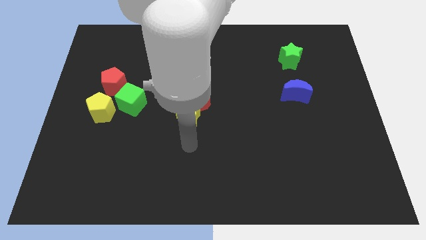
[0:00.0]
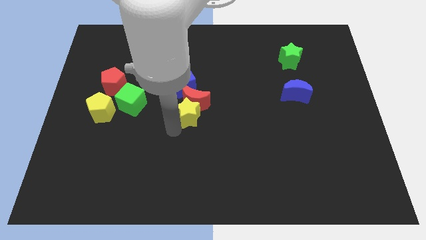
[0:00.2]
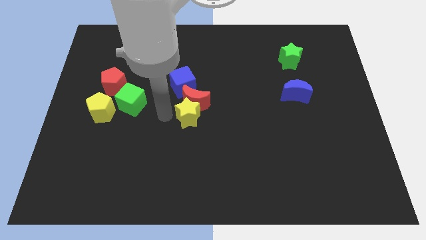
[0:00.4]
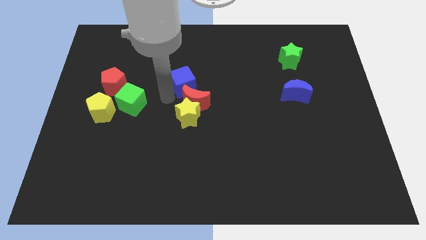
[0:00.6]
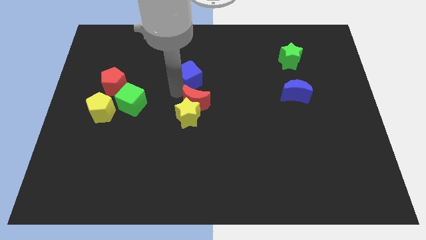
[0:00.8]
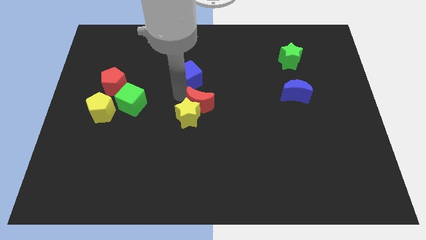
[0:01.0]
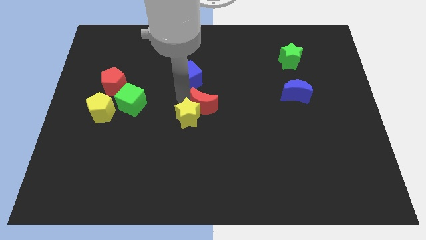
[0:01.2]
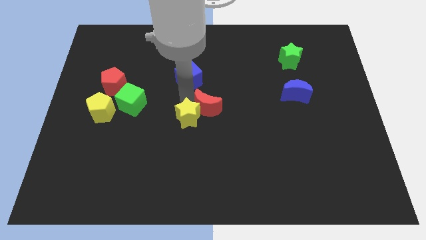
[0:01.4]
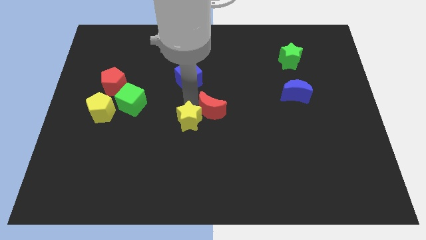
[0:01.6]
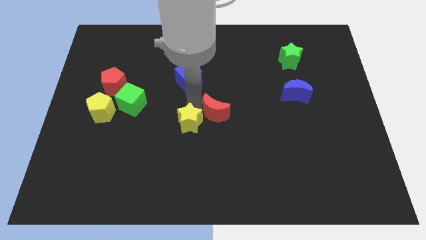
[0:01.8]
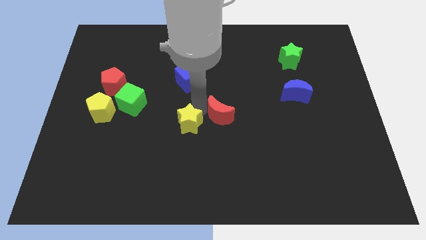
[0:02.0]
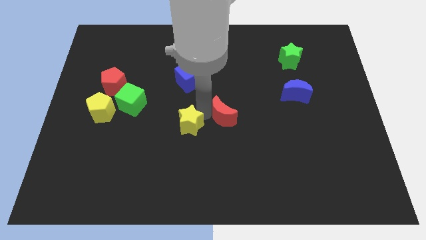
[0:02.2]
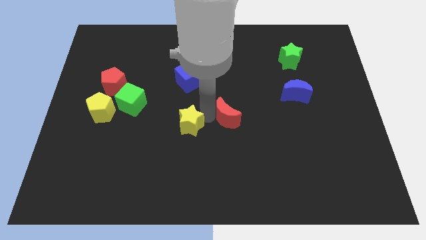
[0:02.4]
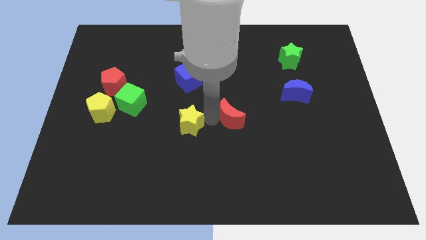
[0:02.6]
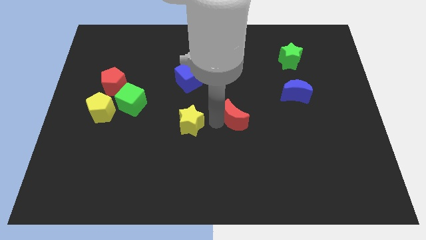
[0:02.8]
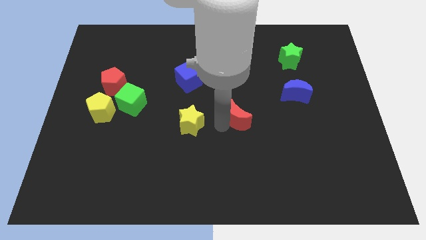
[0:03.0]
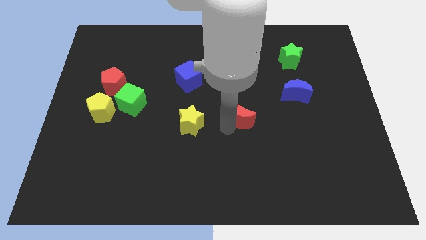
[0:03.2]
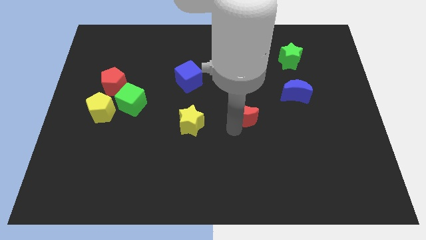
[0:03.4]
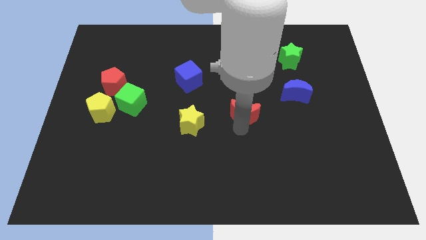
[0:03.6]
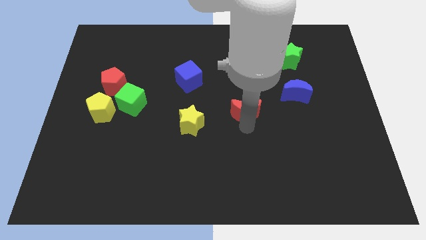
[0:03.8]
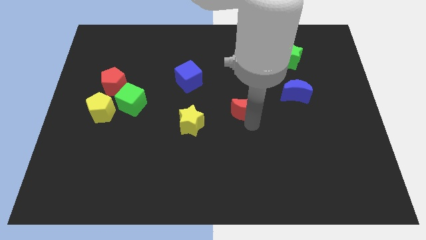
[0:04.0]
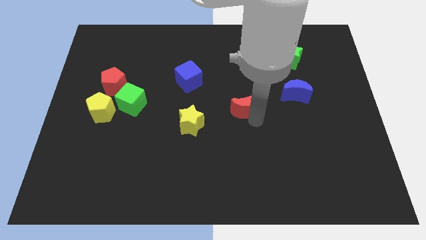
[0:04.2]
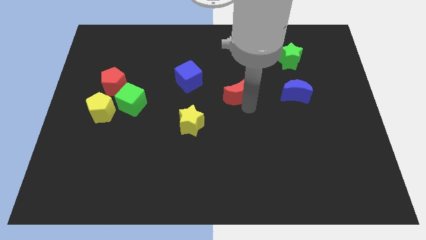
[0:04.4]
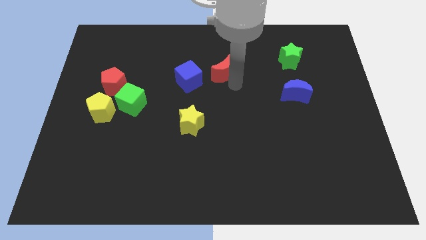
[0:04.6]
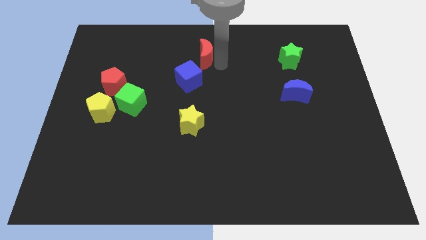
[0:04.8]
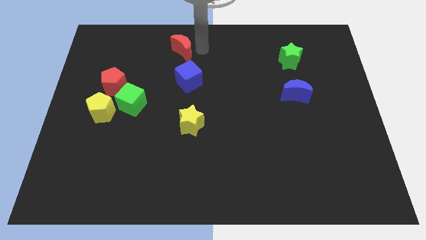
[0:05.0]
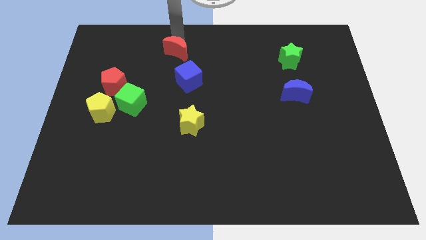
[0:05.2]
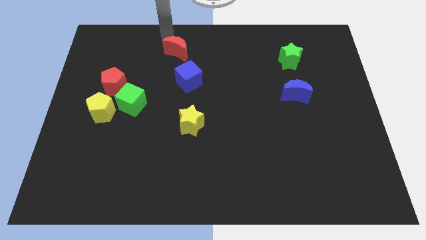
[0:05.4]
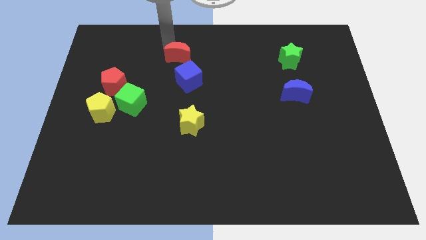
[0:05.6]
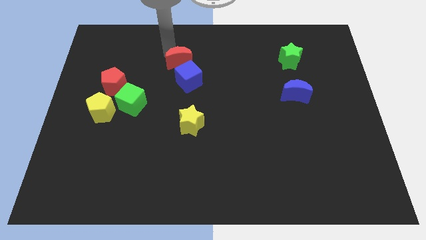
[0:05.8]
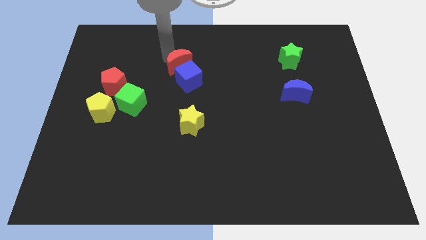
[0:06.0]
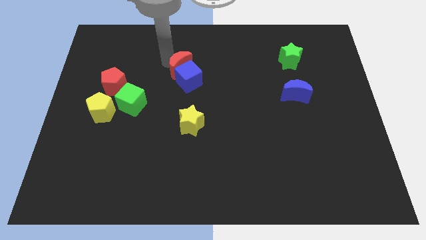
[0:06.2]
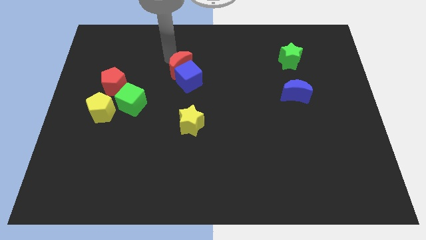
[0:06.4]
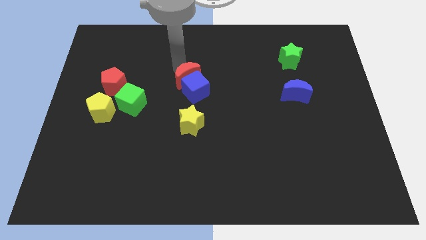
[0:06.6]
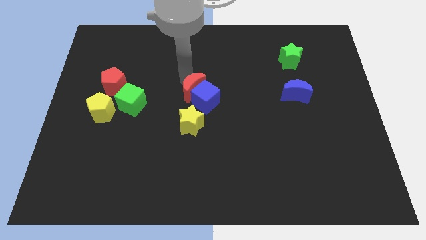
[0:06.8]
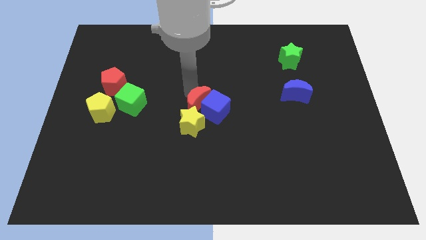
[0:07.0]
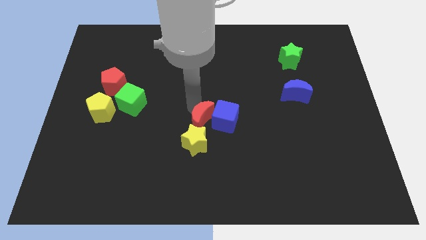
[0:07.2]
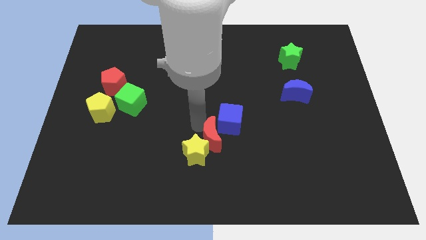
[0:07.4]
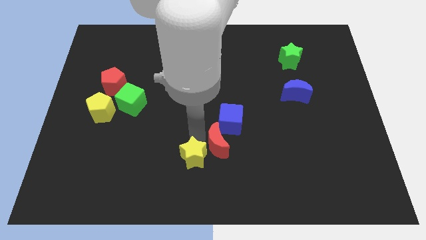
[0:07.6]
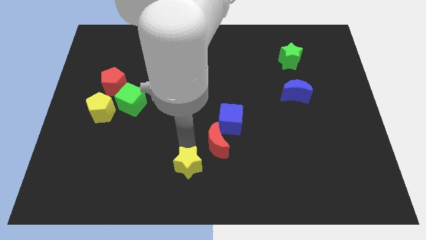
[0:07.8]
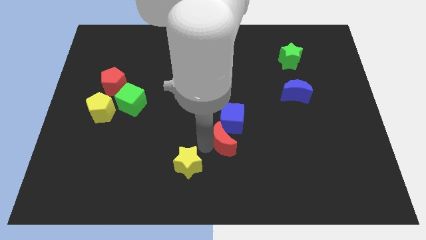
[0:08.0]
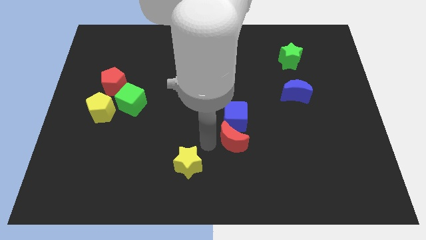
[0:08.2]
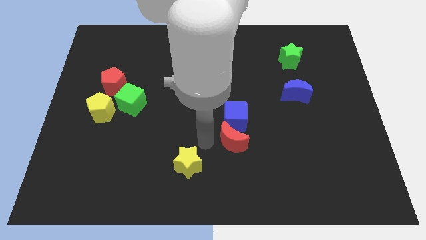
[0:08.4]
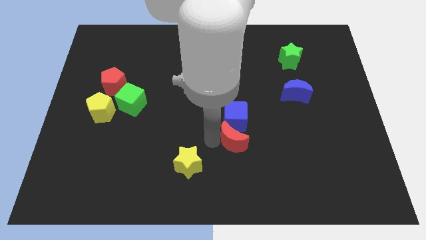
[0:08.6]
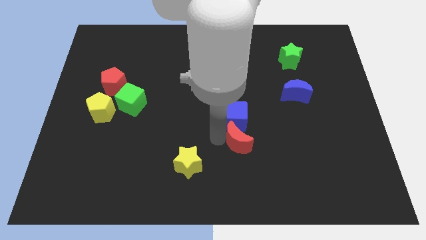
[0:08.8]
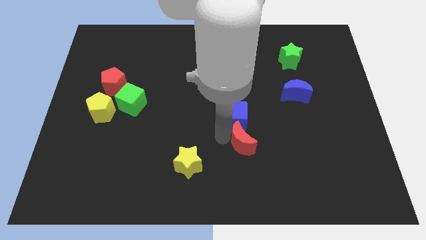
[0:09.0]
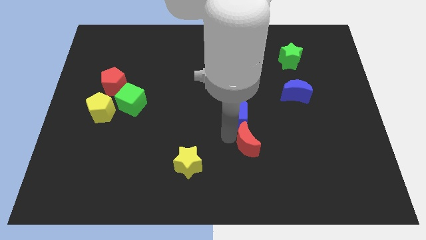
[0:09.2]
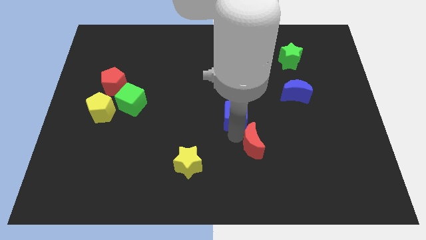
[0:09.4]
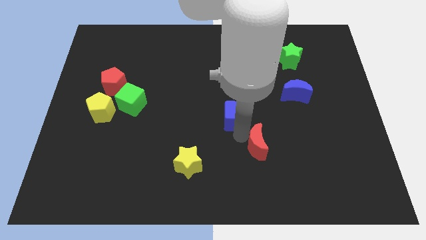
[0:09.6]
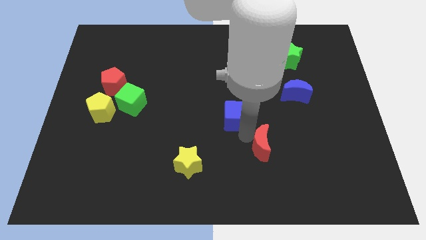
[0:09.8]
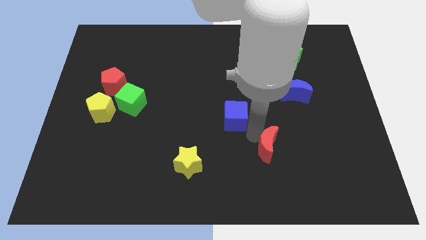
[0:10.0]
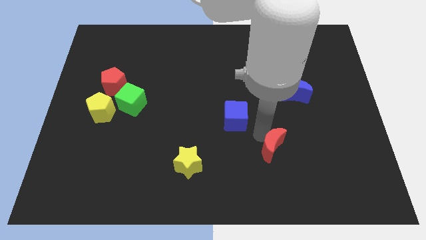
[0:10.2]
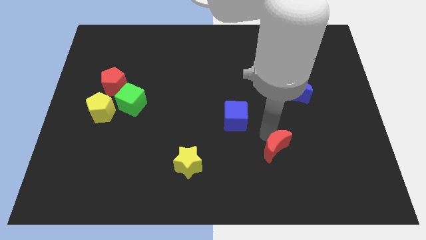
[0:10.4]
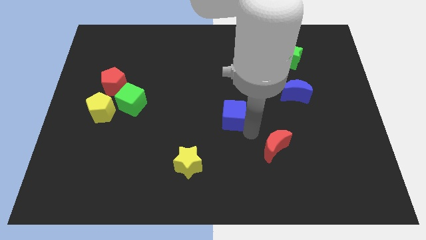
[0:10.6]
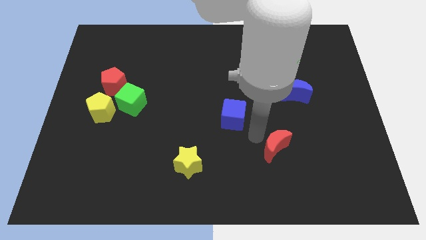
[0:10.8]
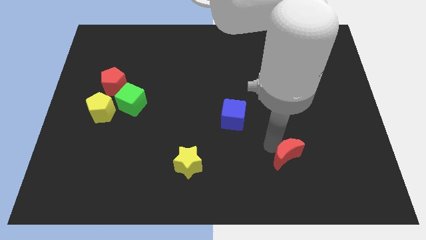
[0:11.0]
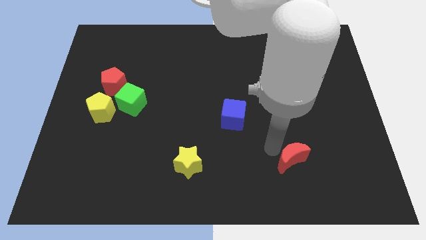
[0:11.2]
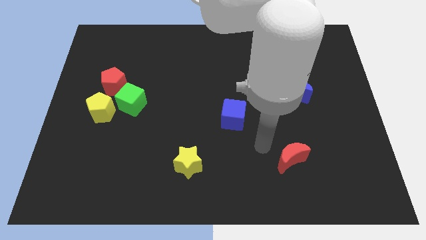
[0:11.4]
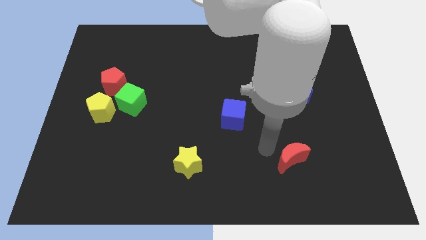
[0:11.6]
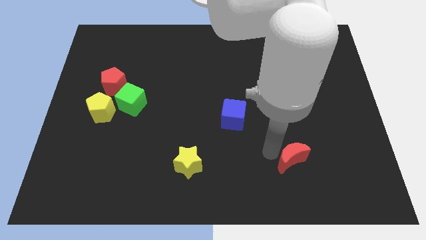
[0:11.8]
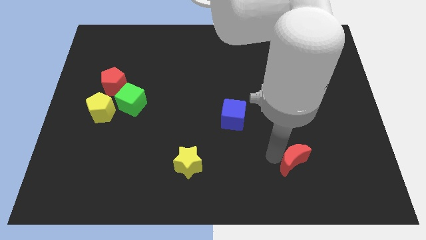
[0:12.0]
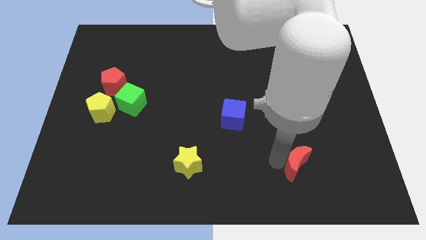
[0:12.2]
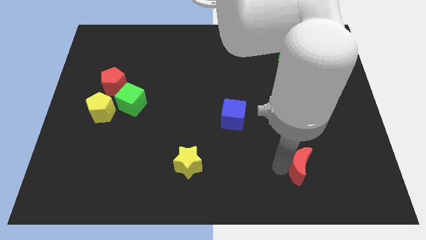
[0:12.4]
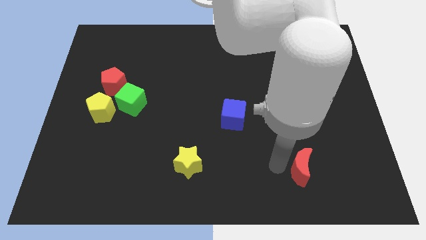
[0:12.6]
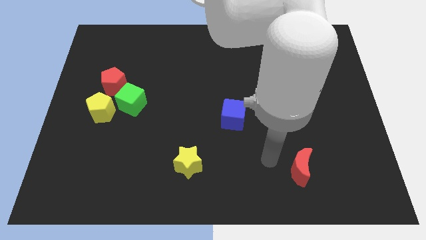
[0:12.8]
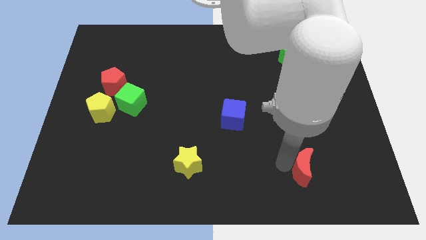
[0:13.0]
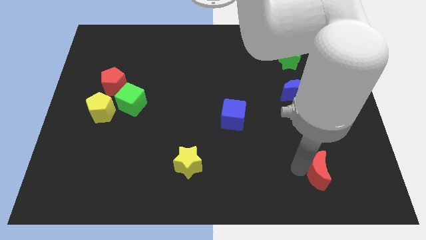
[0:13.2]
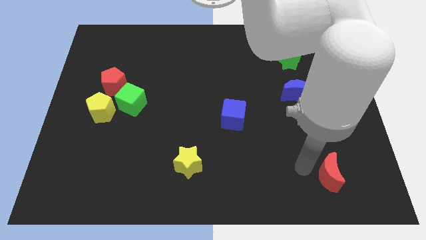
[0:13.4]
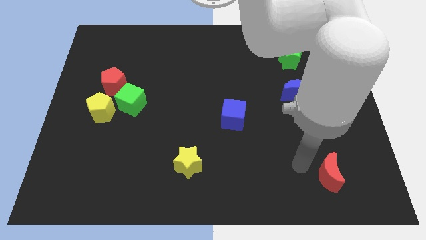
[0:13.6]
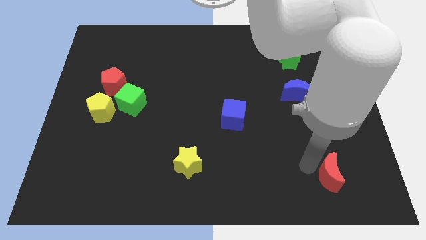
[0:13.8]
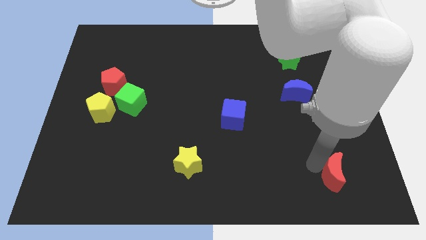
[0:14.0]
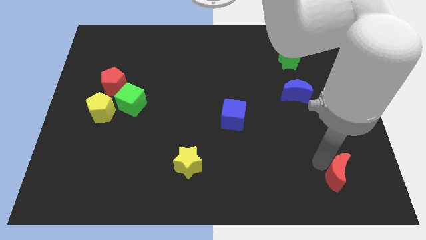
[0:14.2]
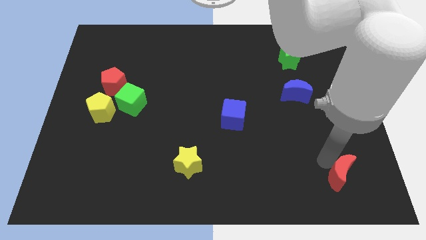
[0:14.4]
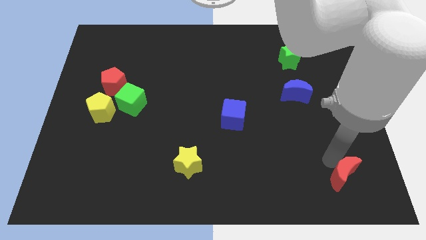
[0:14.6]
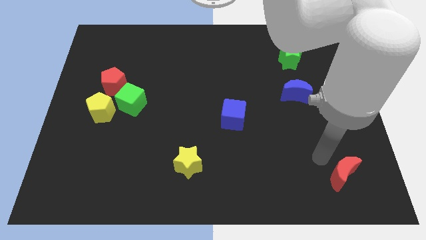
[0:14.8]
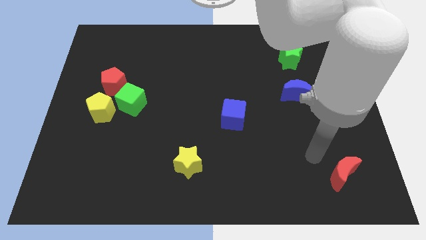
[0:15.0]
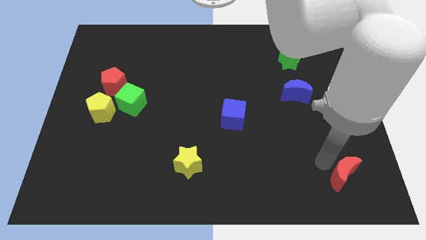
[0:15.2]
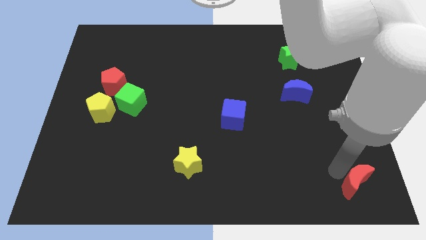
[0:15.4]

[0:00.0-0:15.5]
slide the red moon to the bottom right of the board
